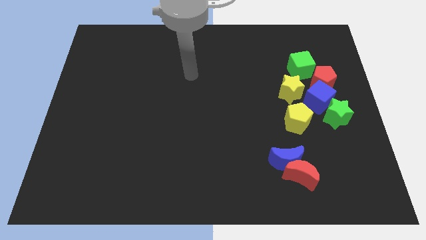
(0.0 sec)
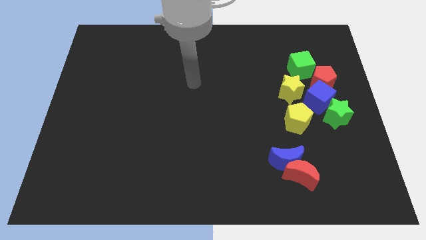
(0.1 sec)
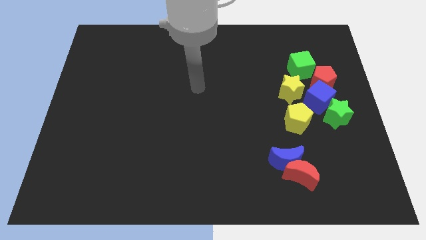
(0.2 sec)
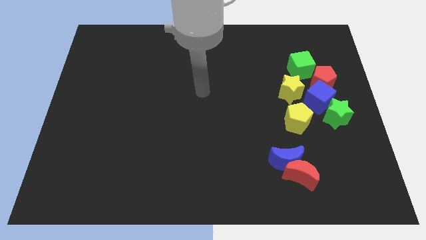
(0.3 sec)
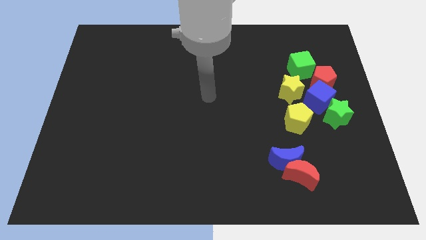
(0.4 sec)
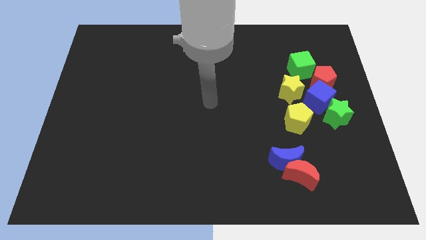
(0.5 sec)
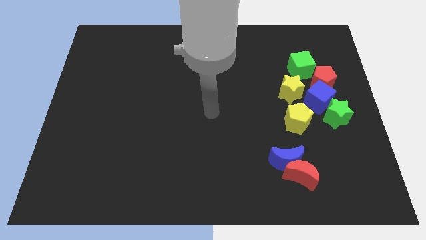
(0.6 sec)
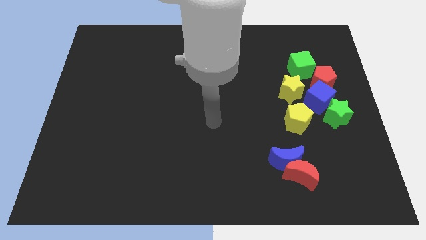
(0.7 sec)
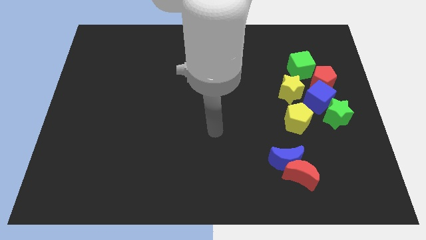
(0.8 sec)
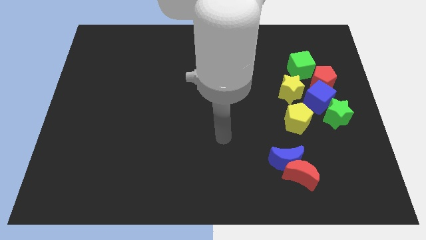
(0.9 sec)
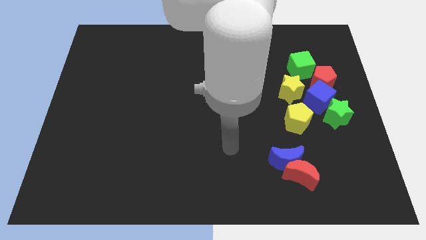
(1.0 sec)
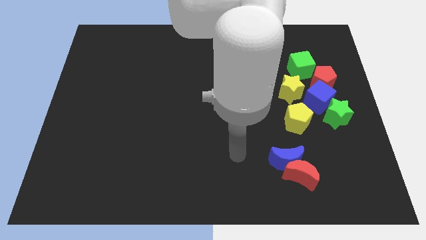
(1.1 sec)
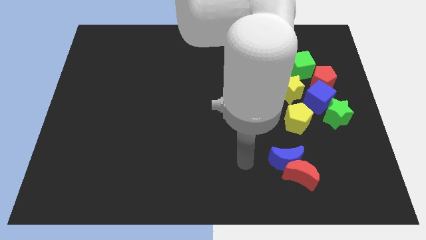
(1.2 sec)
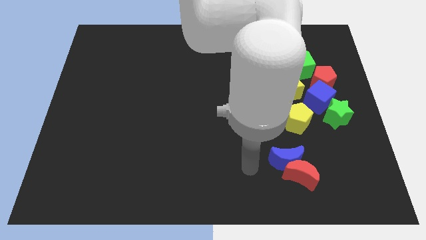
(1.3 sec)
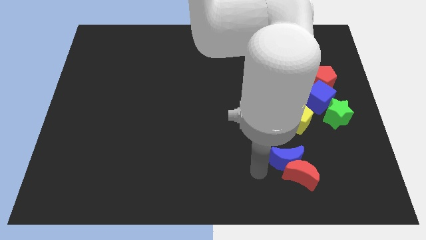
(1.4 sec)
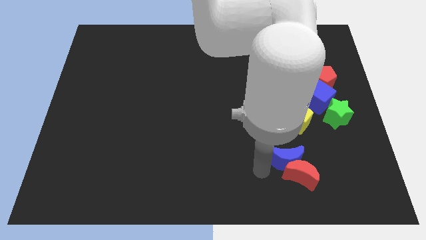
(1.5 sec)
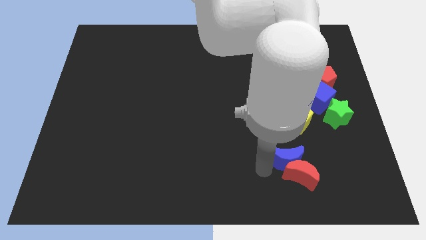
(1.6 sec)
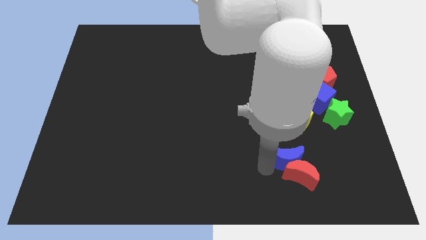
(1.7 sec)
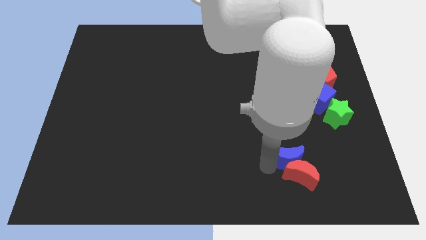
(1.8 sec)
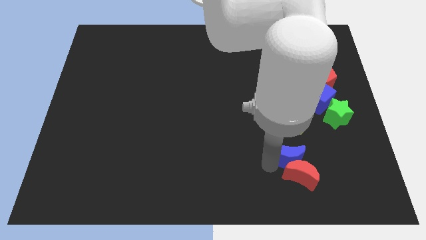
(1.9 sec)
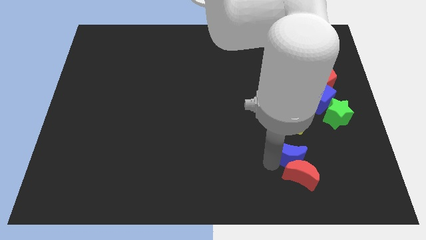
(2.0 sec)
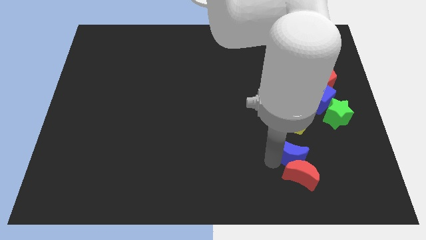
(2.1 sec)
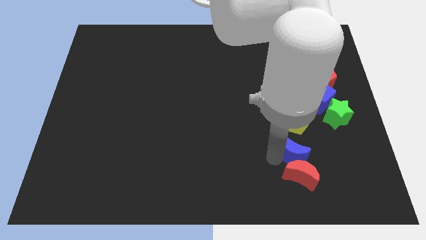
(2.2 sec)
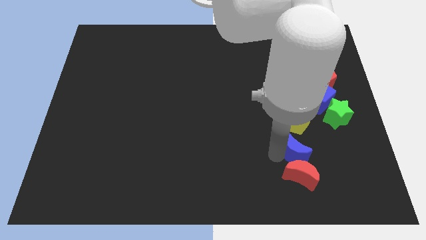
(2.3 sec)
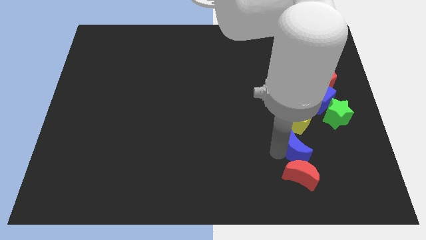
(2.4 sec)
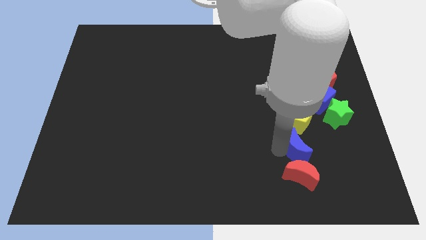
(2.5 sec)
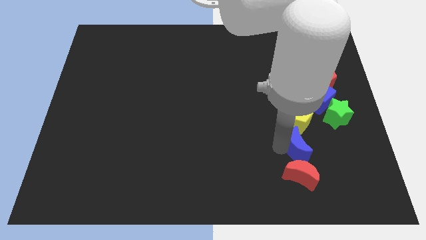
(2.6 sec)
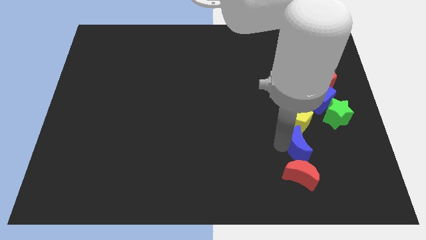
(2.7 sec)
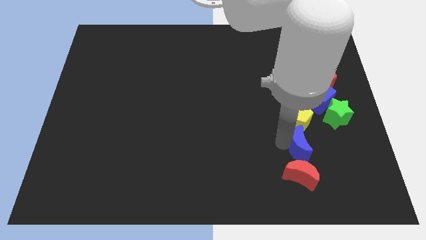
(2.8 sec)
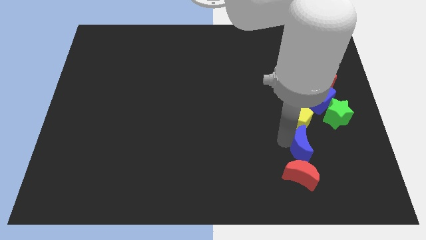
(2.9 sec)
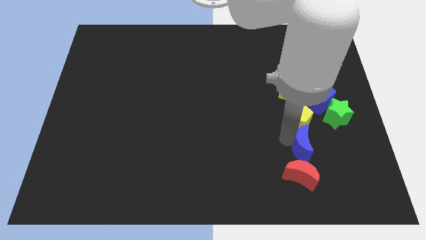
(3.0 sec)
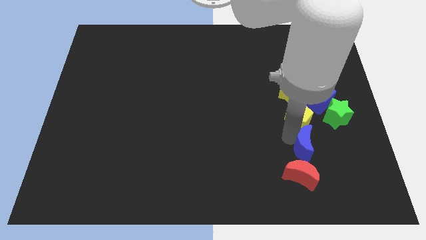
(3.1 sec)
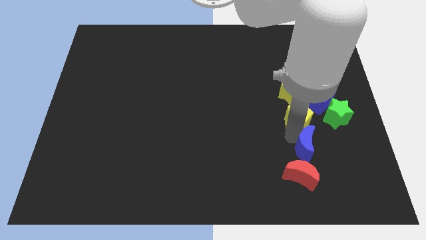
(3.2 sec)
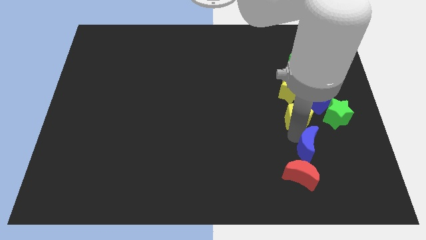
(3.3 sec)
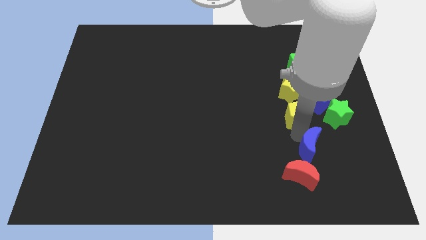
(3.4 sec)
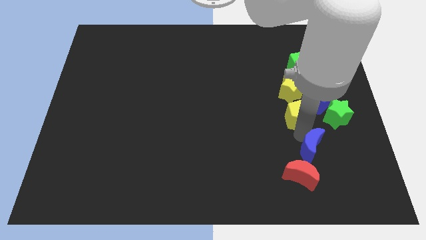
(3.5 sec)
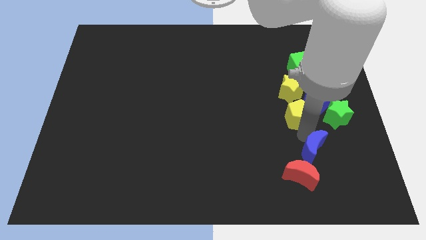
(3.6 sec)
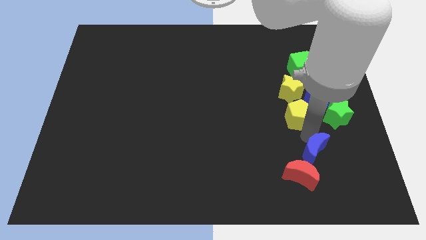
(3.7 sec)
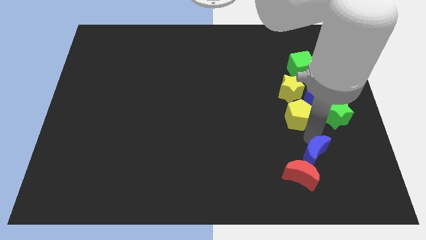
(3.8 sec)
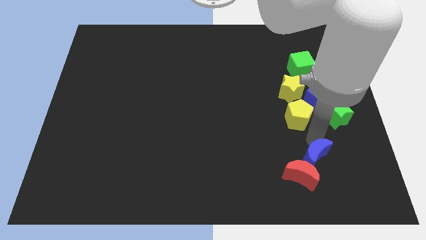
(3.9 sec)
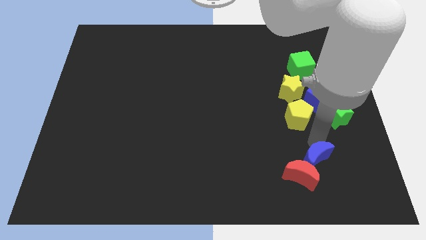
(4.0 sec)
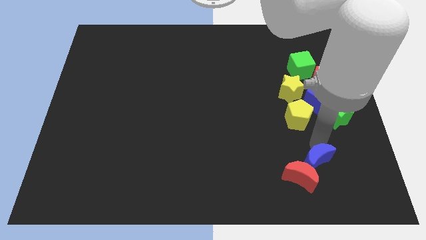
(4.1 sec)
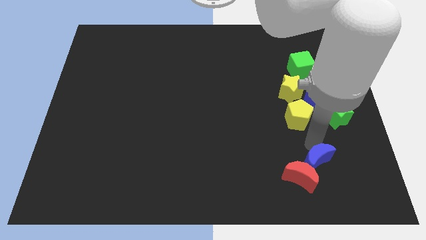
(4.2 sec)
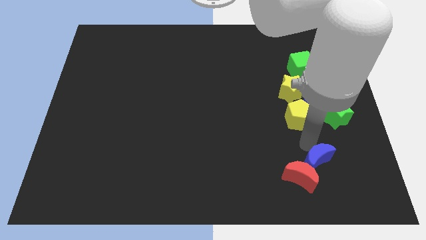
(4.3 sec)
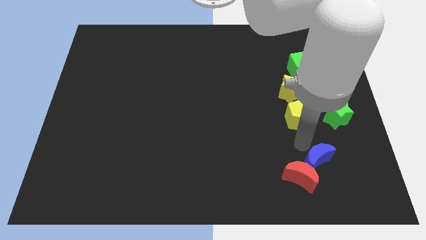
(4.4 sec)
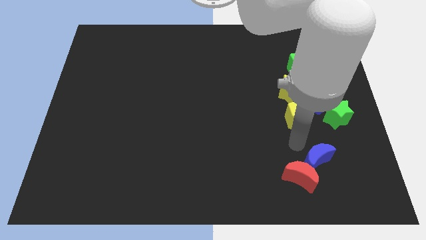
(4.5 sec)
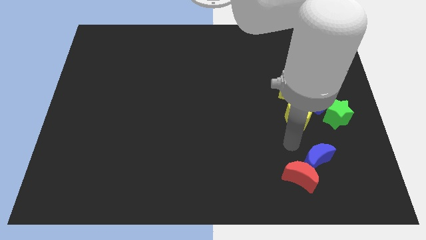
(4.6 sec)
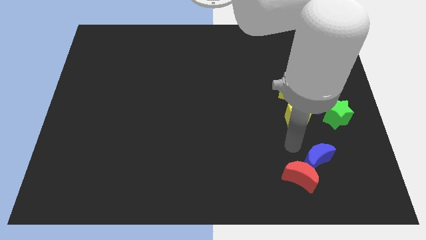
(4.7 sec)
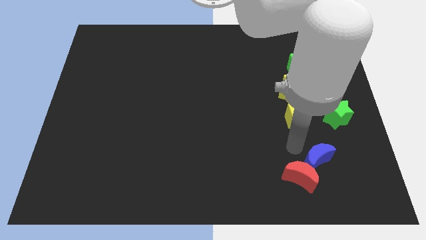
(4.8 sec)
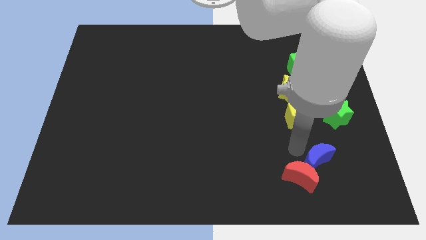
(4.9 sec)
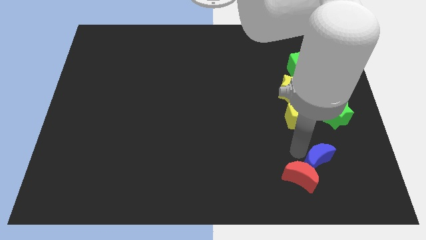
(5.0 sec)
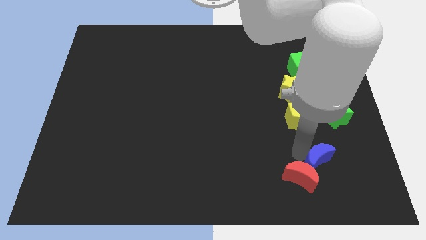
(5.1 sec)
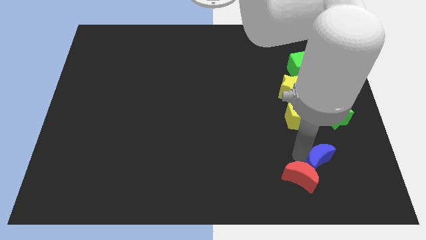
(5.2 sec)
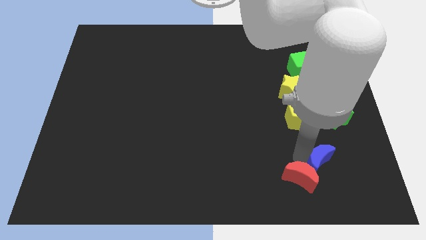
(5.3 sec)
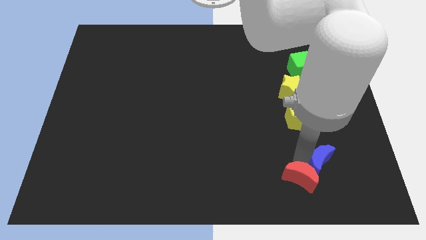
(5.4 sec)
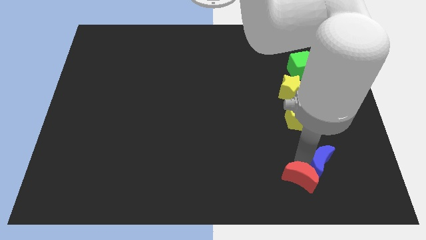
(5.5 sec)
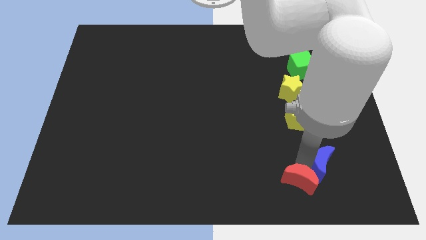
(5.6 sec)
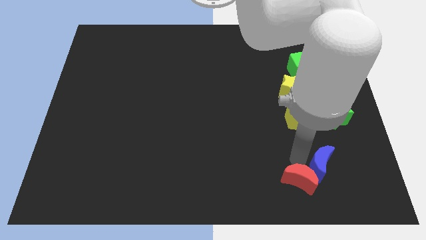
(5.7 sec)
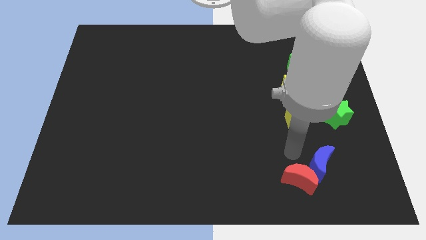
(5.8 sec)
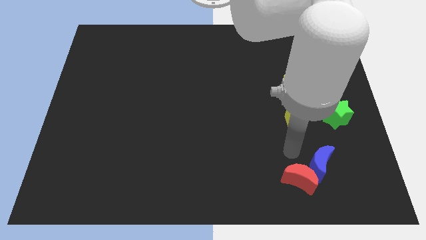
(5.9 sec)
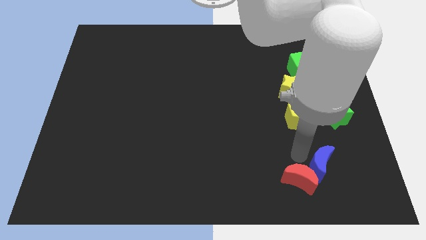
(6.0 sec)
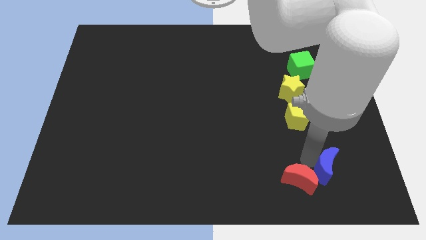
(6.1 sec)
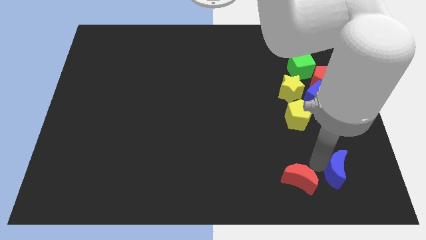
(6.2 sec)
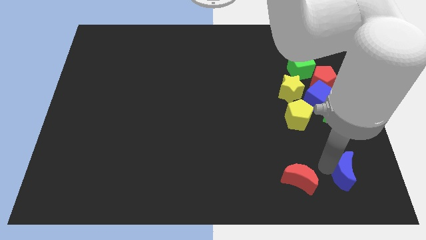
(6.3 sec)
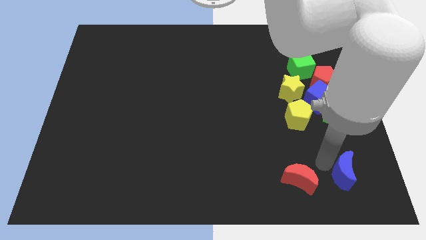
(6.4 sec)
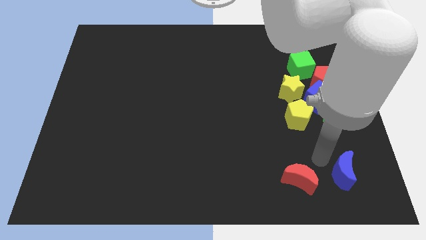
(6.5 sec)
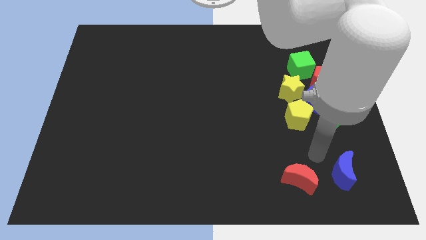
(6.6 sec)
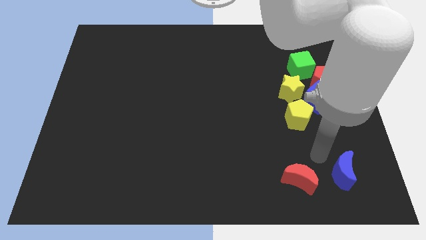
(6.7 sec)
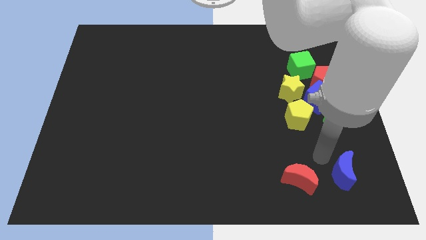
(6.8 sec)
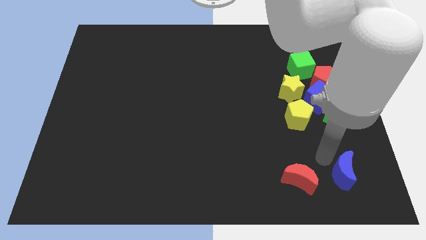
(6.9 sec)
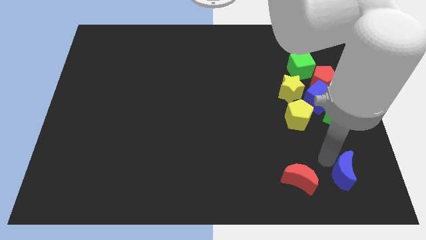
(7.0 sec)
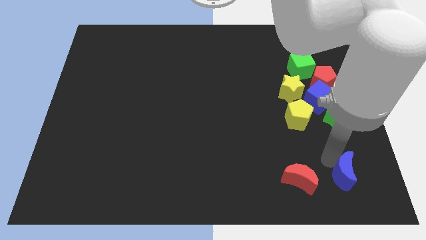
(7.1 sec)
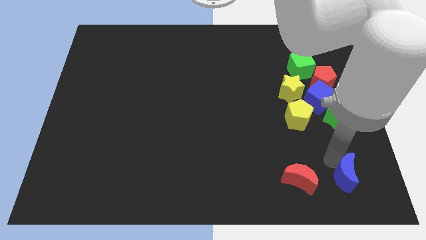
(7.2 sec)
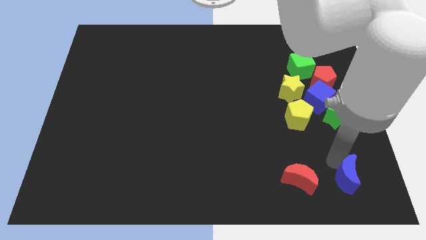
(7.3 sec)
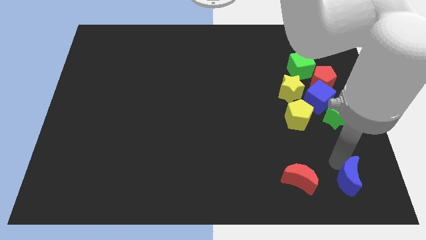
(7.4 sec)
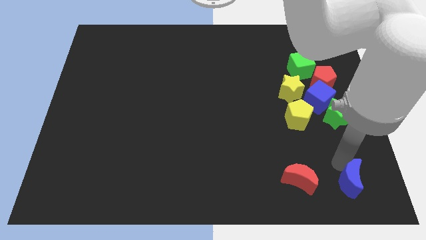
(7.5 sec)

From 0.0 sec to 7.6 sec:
put the blue moon to the lower right corner
